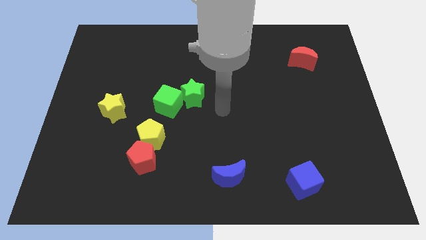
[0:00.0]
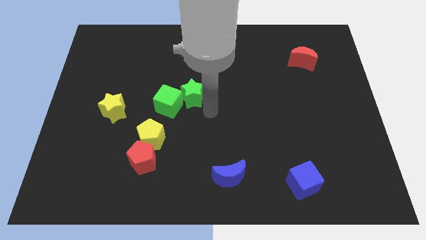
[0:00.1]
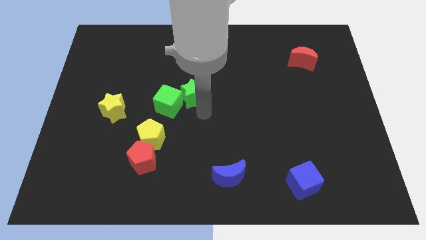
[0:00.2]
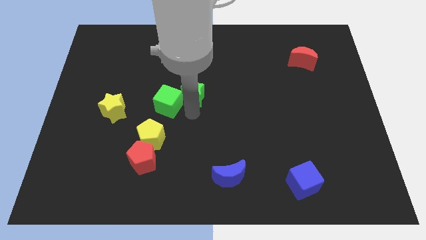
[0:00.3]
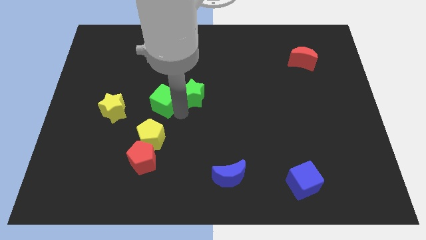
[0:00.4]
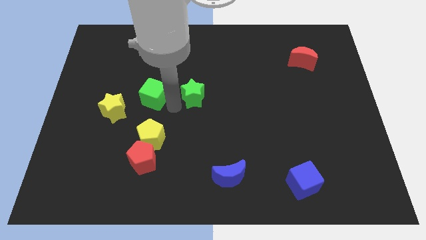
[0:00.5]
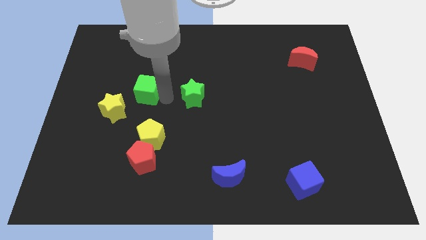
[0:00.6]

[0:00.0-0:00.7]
move the green star away from the green cube

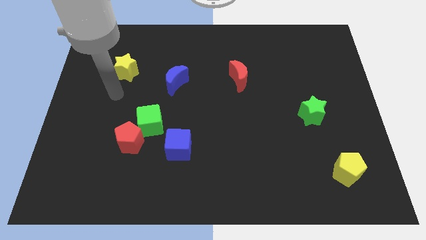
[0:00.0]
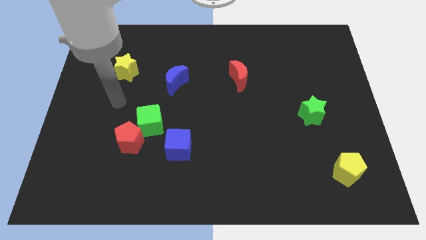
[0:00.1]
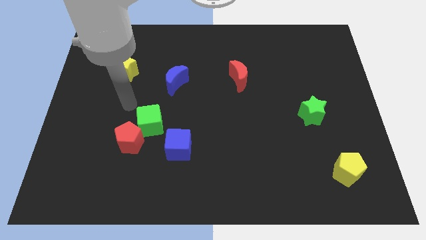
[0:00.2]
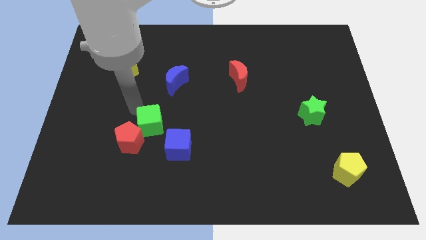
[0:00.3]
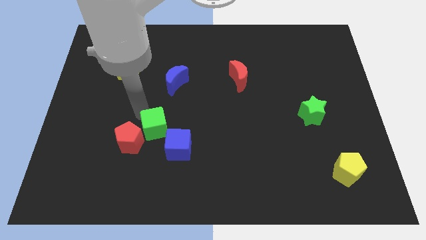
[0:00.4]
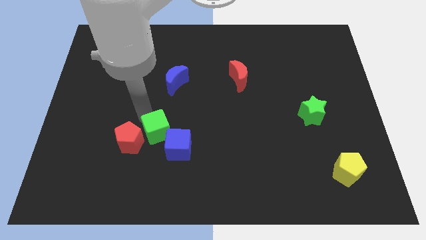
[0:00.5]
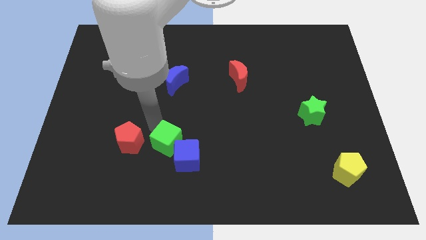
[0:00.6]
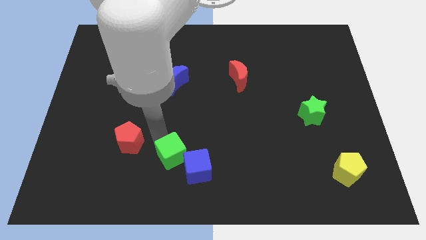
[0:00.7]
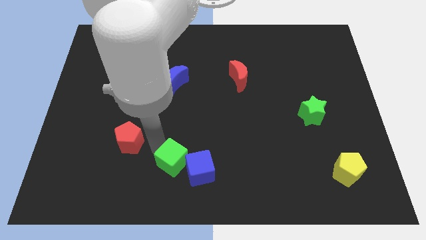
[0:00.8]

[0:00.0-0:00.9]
move the red pentagon away from the green cube

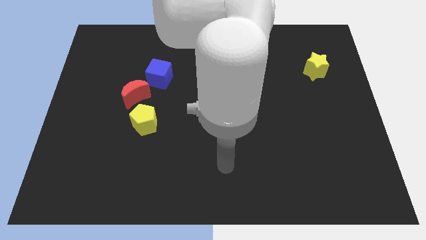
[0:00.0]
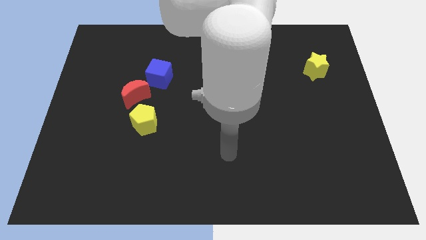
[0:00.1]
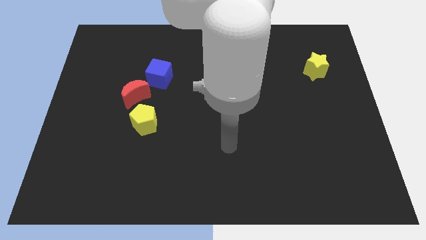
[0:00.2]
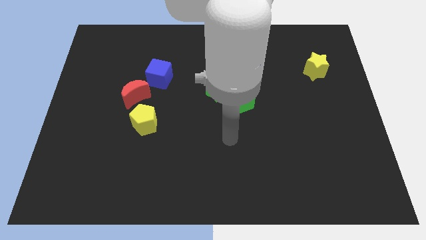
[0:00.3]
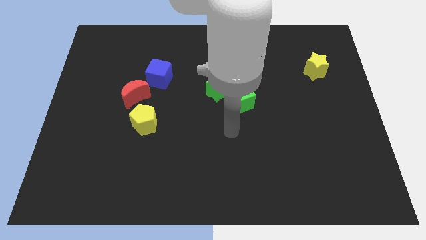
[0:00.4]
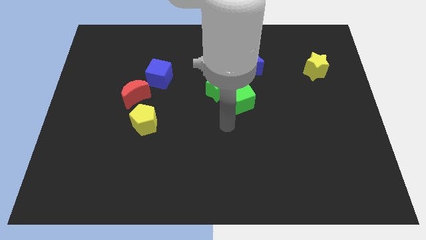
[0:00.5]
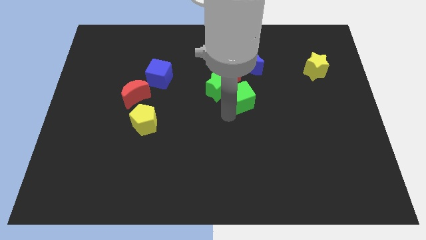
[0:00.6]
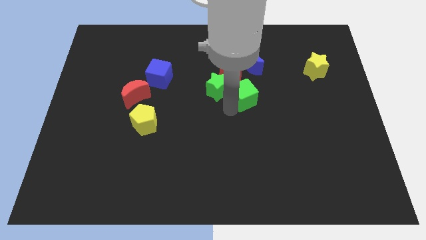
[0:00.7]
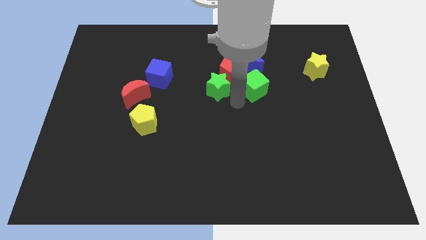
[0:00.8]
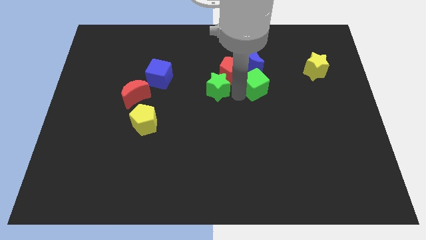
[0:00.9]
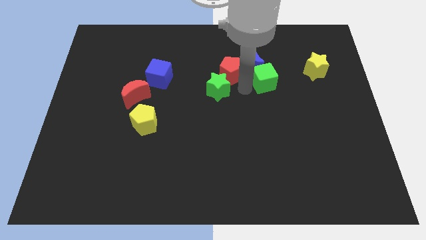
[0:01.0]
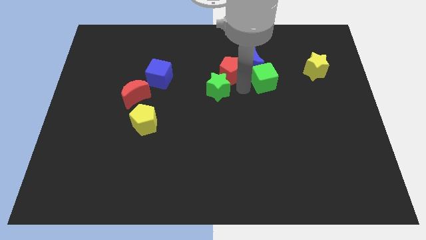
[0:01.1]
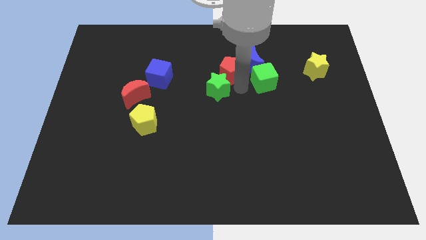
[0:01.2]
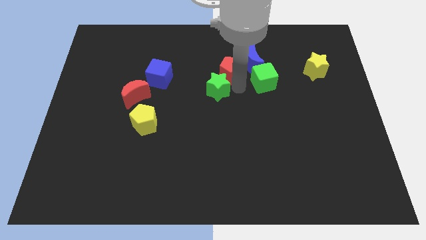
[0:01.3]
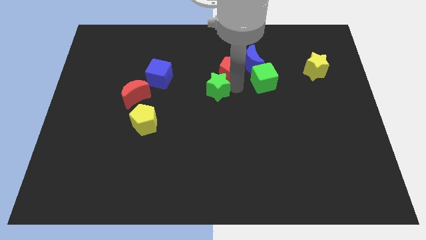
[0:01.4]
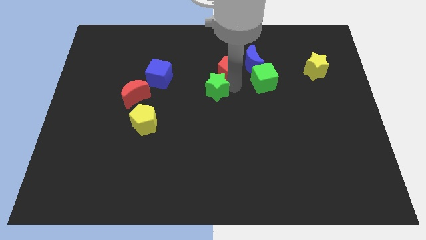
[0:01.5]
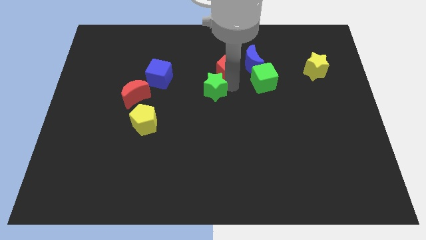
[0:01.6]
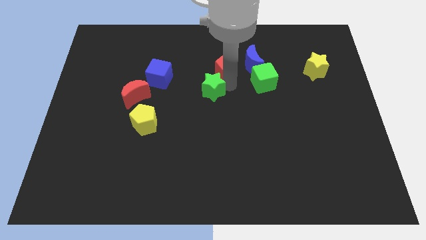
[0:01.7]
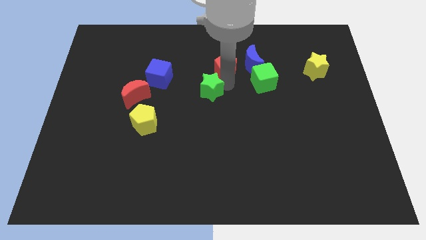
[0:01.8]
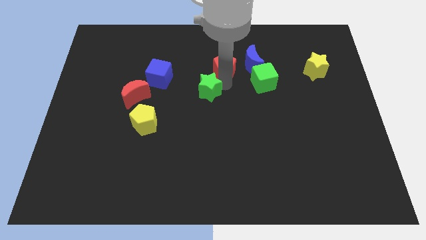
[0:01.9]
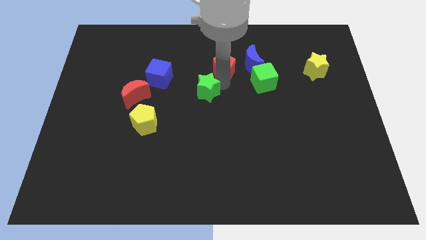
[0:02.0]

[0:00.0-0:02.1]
separate the green star from the red pentagon and green cube

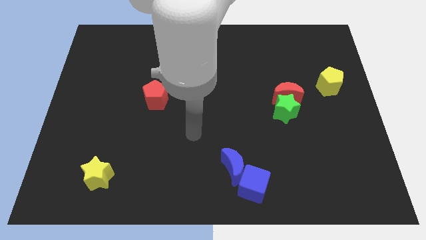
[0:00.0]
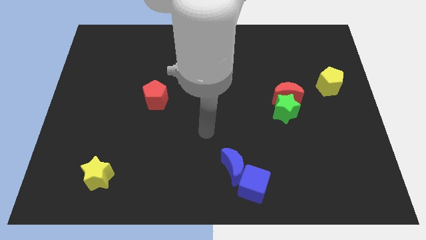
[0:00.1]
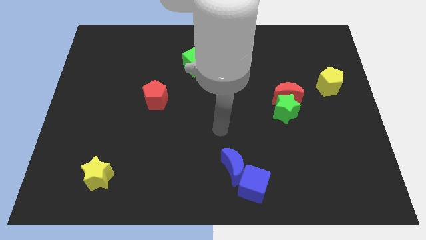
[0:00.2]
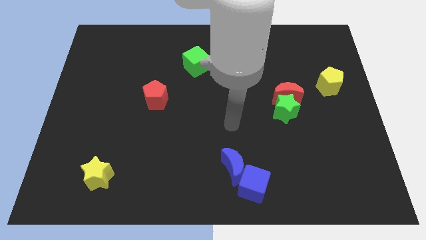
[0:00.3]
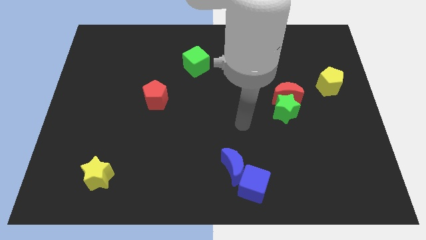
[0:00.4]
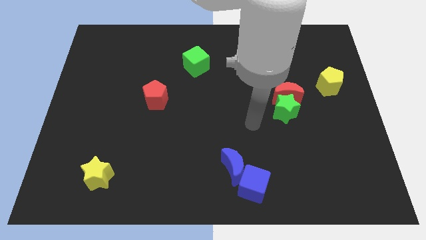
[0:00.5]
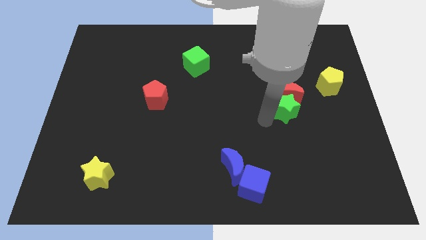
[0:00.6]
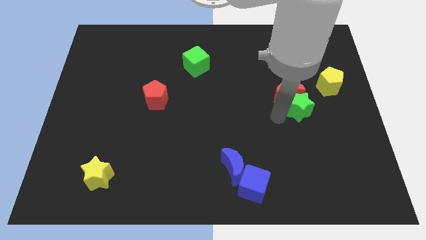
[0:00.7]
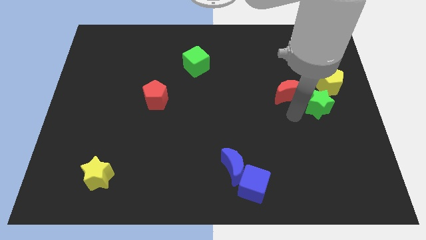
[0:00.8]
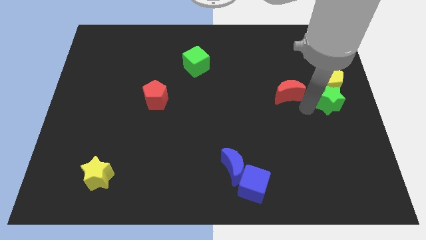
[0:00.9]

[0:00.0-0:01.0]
move the red moon away from the green star

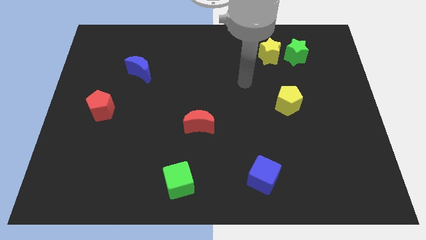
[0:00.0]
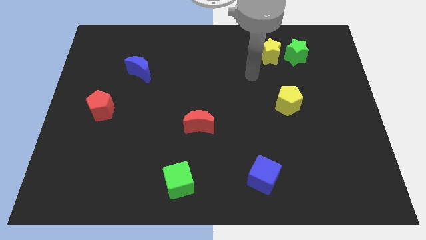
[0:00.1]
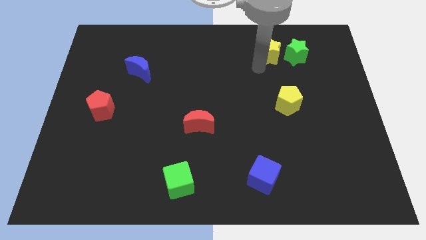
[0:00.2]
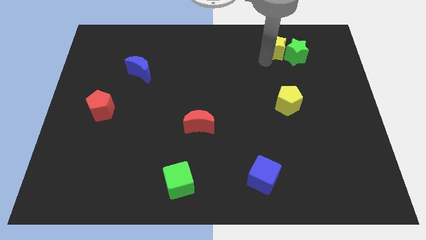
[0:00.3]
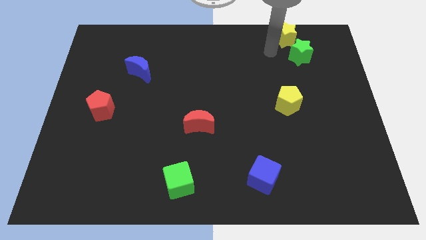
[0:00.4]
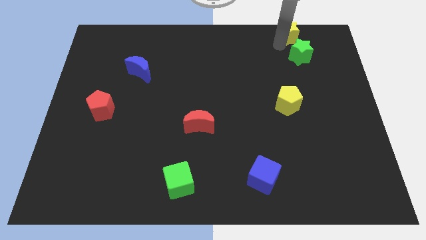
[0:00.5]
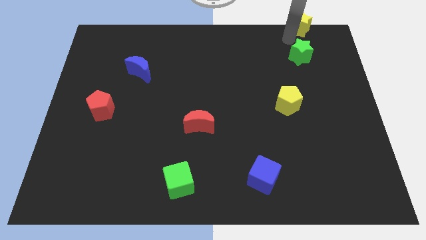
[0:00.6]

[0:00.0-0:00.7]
move the green star away from the yellow star

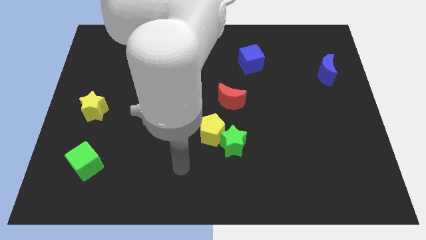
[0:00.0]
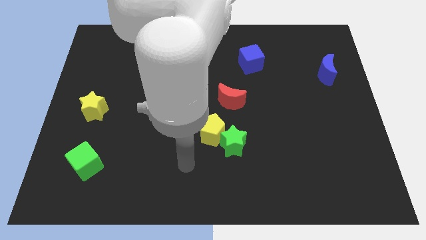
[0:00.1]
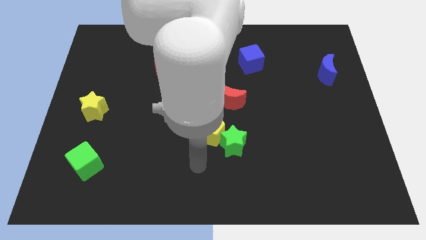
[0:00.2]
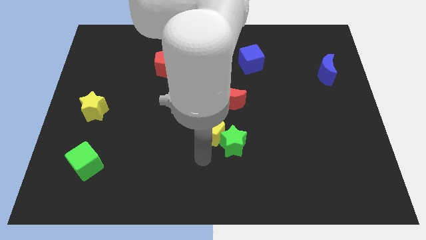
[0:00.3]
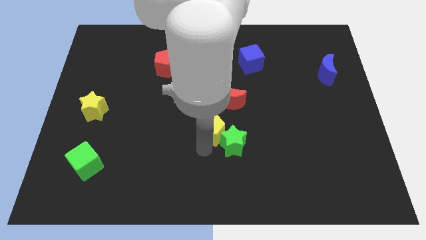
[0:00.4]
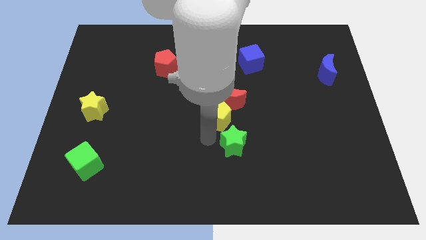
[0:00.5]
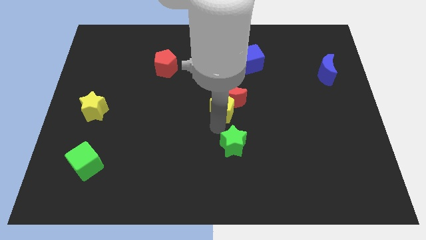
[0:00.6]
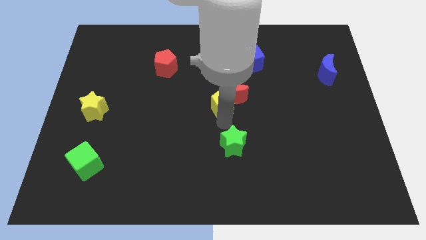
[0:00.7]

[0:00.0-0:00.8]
move the green star away from the yellow pentagon

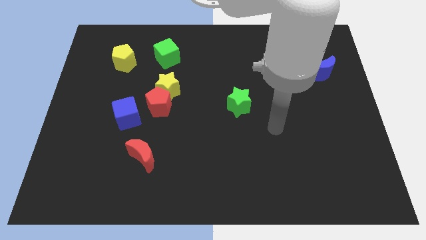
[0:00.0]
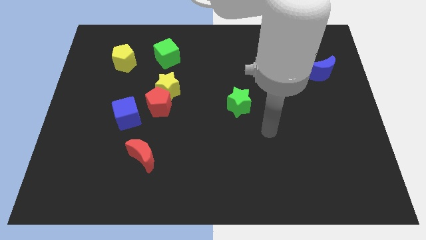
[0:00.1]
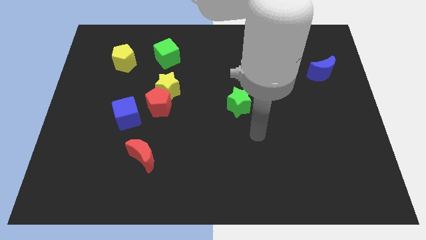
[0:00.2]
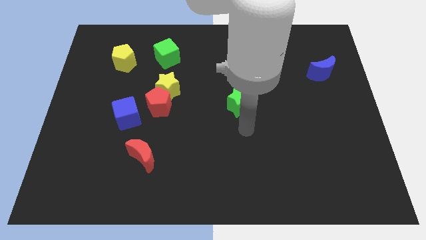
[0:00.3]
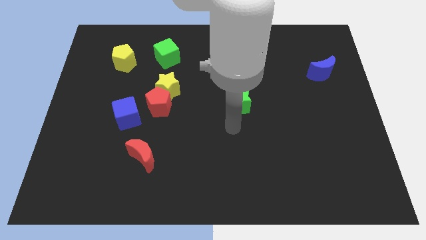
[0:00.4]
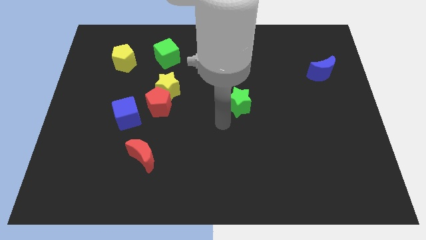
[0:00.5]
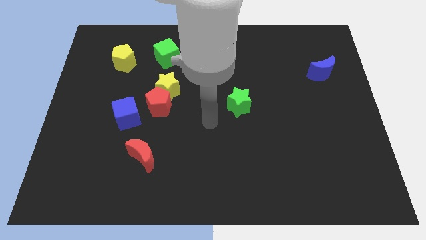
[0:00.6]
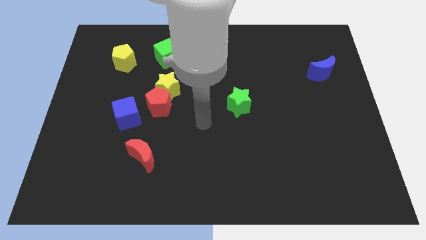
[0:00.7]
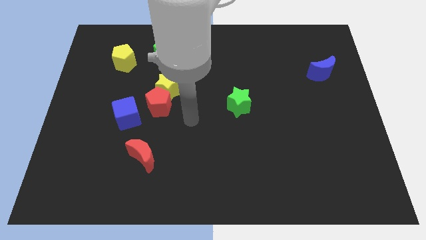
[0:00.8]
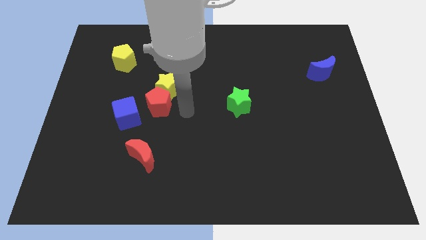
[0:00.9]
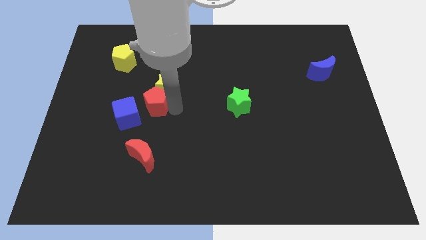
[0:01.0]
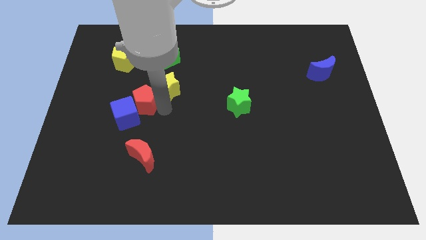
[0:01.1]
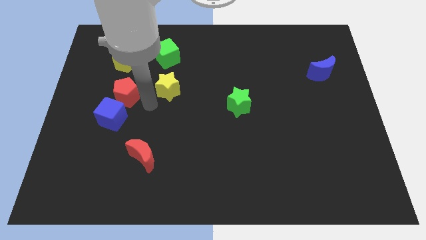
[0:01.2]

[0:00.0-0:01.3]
pull the yellow star apart from the red pentagon

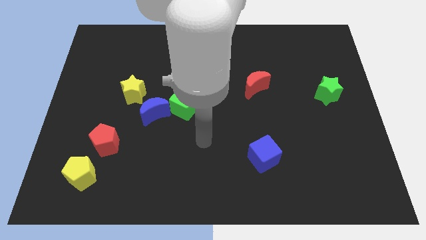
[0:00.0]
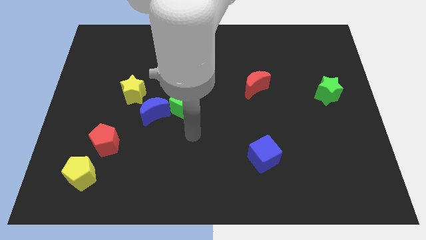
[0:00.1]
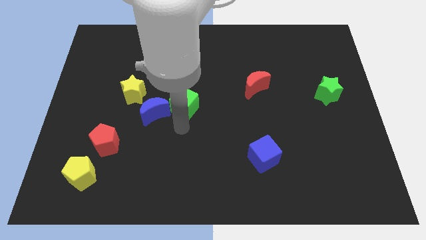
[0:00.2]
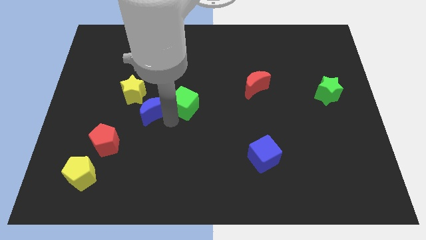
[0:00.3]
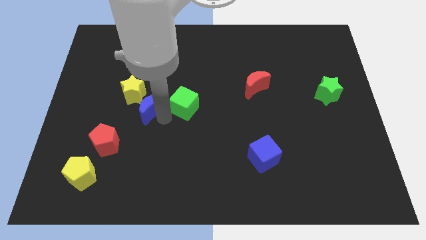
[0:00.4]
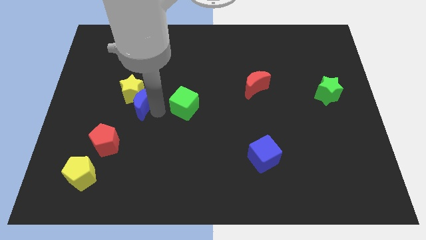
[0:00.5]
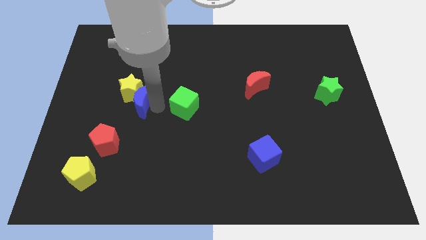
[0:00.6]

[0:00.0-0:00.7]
pull the green cube apart from the blue moon

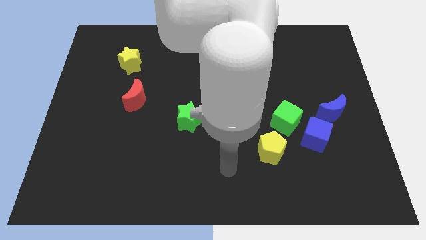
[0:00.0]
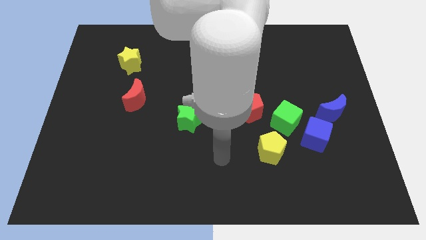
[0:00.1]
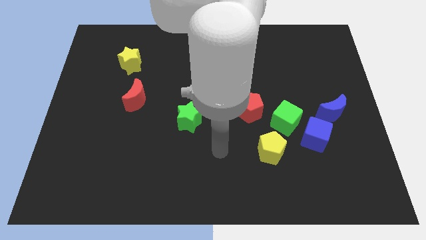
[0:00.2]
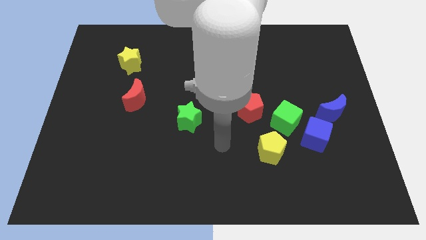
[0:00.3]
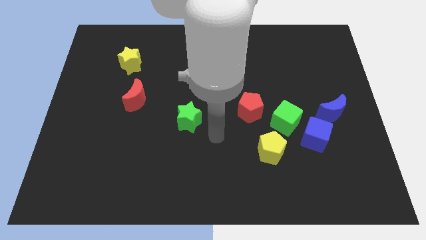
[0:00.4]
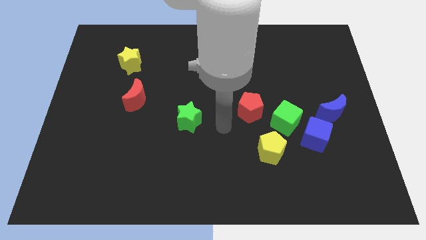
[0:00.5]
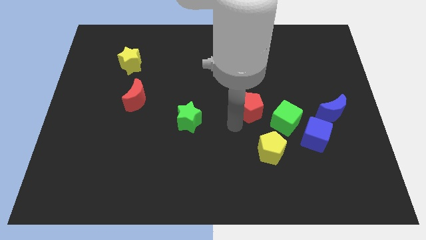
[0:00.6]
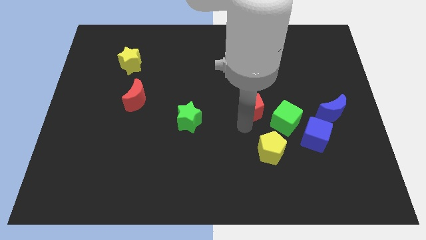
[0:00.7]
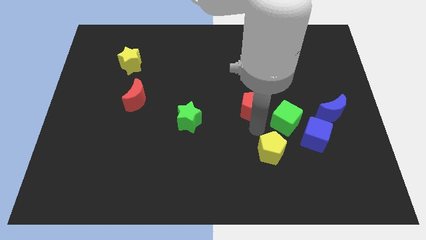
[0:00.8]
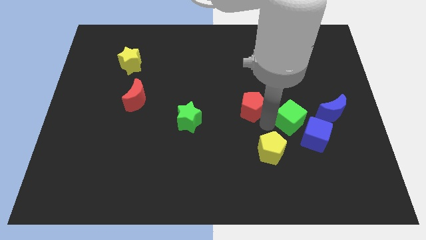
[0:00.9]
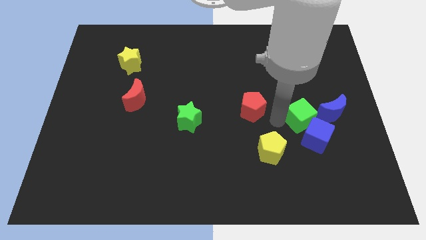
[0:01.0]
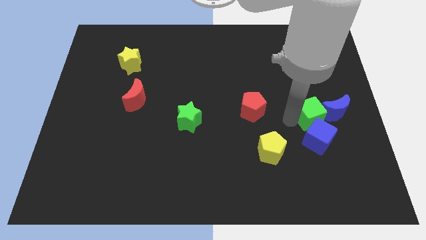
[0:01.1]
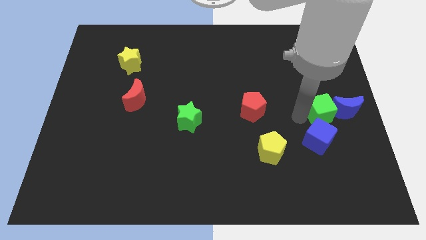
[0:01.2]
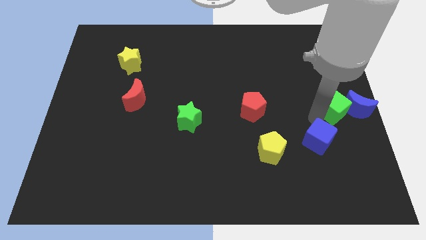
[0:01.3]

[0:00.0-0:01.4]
move the blue cube away from the green cube and blue moon
